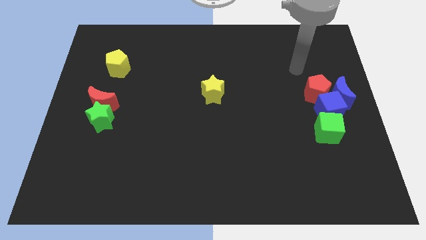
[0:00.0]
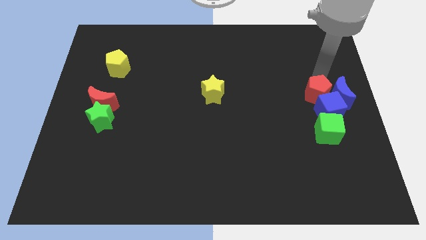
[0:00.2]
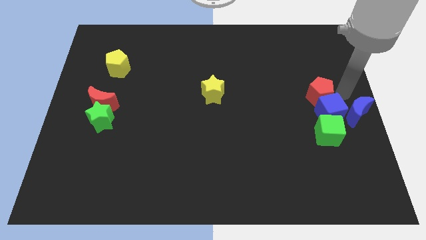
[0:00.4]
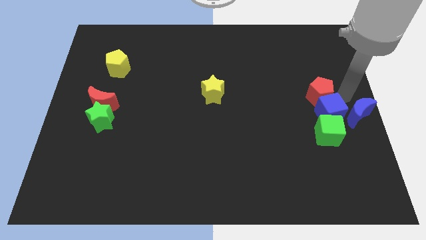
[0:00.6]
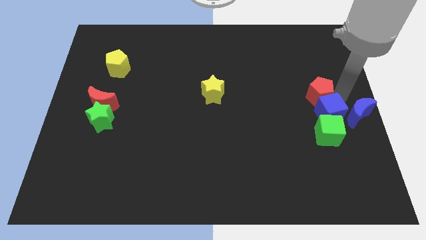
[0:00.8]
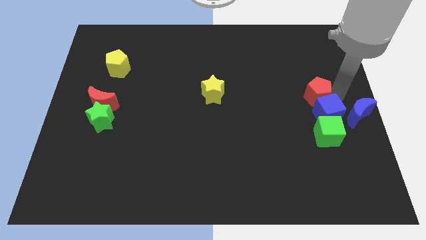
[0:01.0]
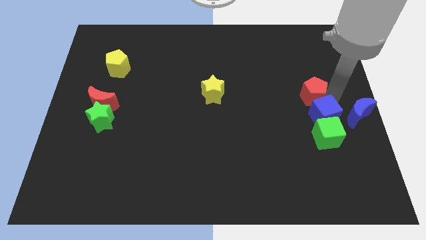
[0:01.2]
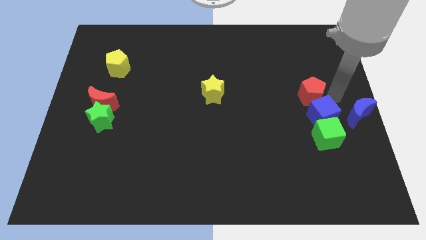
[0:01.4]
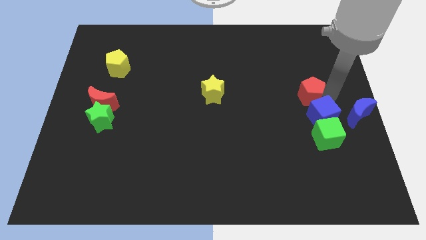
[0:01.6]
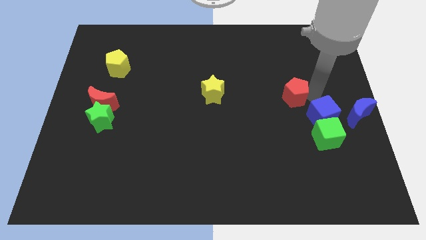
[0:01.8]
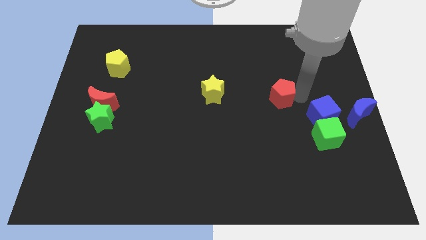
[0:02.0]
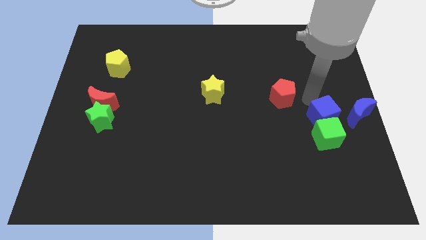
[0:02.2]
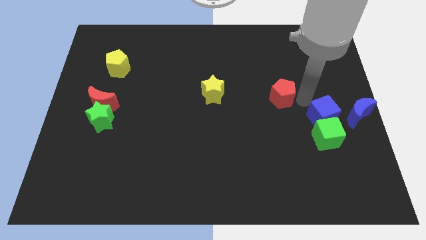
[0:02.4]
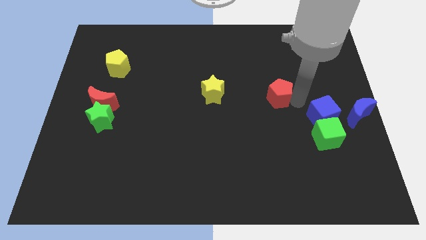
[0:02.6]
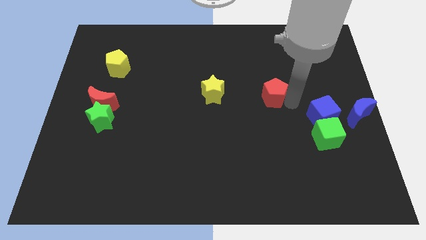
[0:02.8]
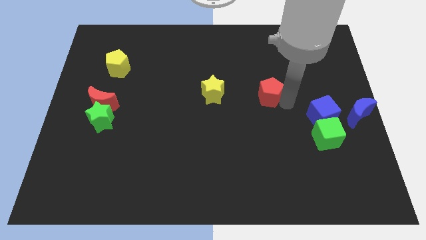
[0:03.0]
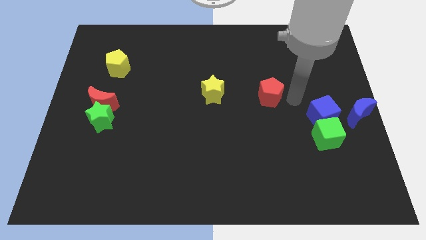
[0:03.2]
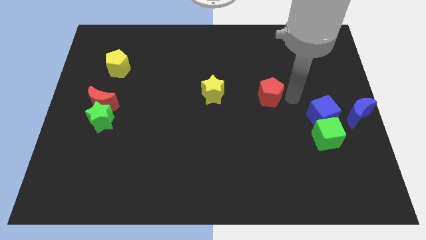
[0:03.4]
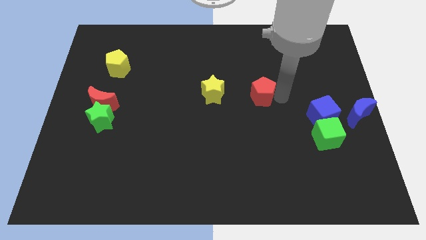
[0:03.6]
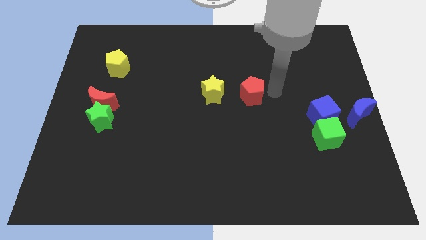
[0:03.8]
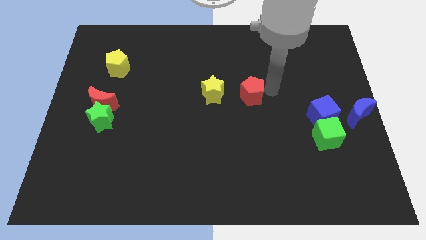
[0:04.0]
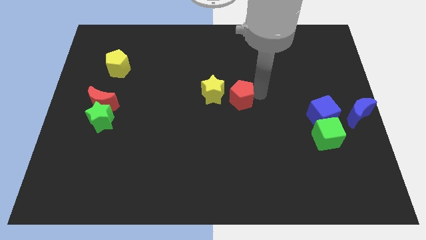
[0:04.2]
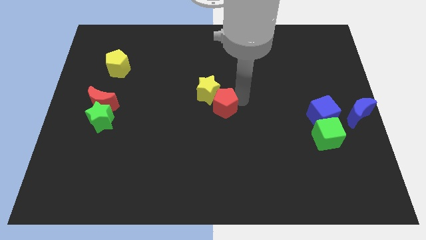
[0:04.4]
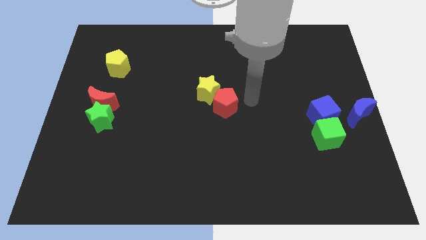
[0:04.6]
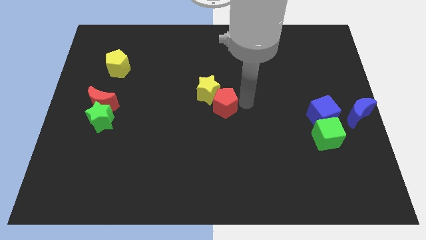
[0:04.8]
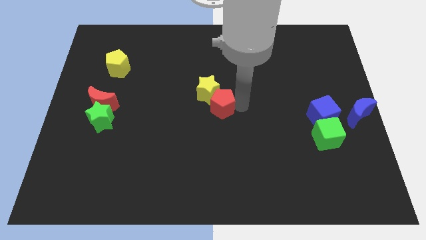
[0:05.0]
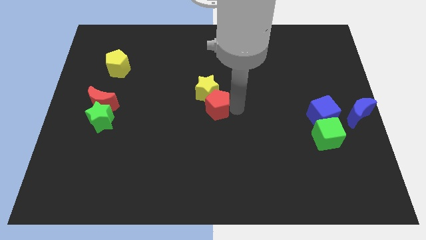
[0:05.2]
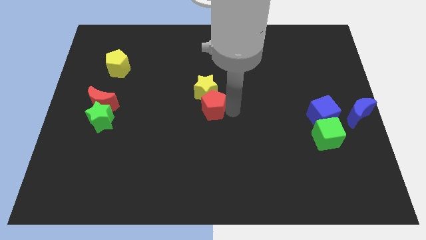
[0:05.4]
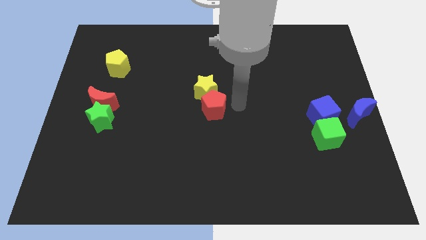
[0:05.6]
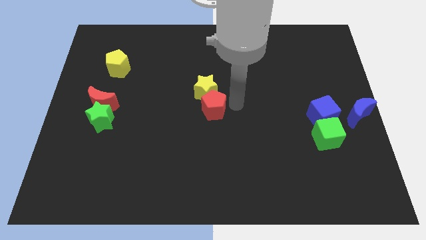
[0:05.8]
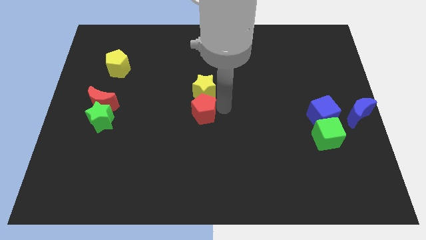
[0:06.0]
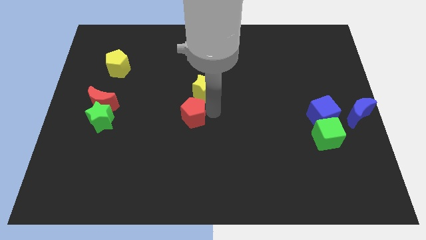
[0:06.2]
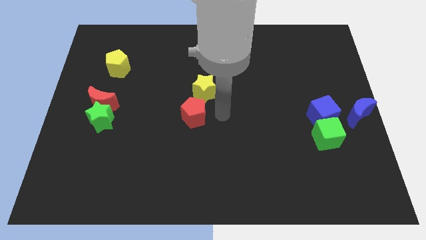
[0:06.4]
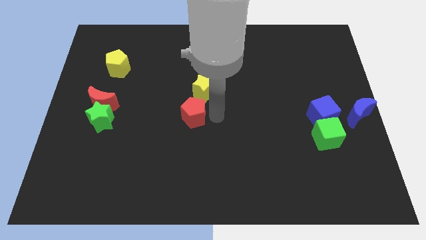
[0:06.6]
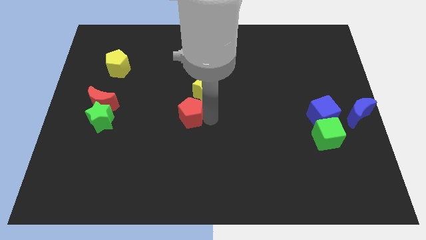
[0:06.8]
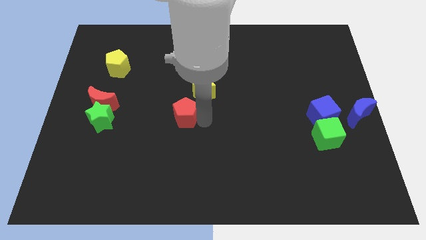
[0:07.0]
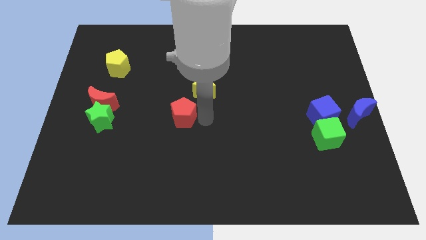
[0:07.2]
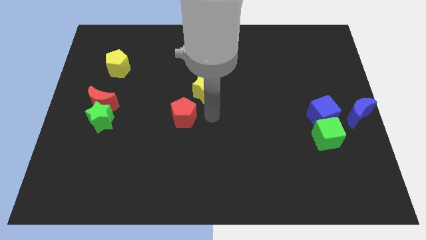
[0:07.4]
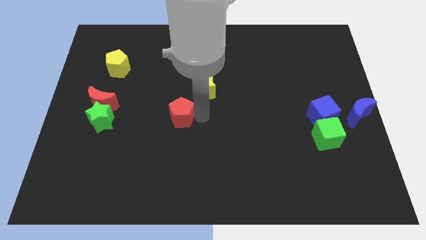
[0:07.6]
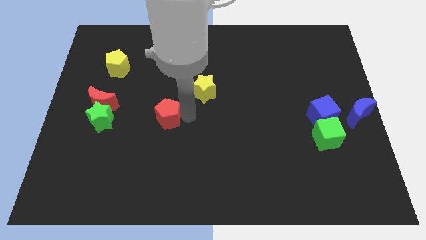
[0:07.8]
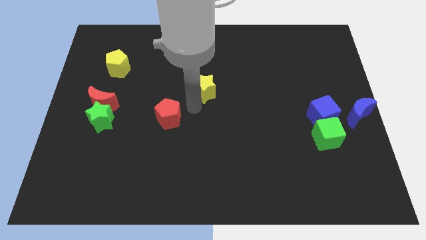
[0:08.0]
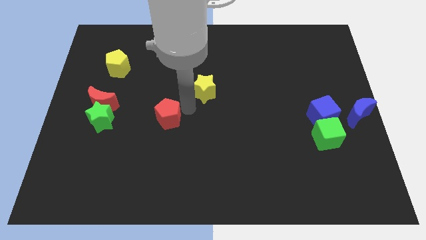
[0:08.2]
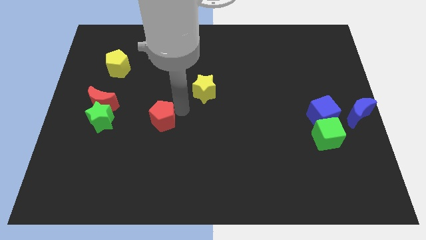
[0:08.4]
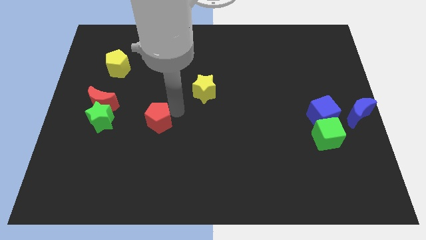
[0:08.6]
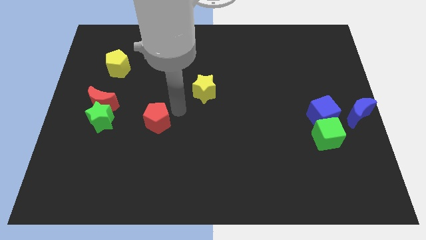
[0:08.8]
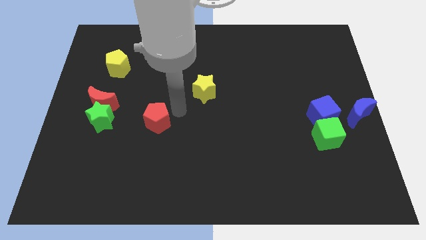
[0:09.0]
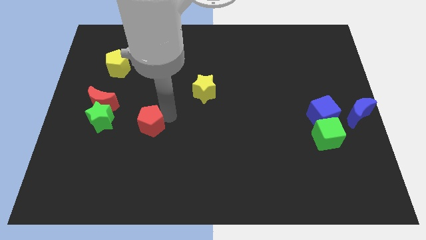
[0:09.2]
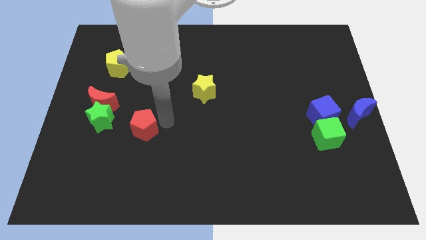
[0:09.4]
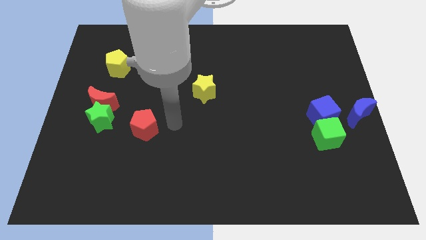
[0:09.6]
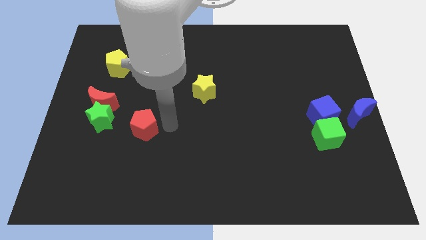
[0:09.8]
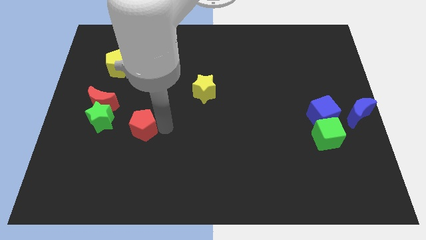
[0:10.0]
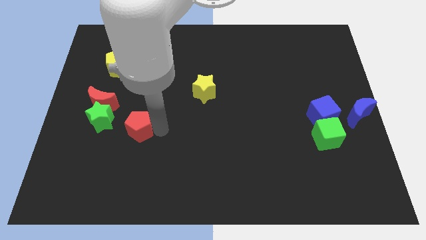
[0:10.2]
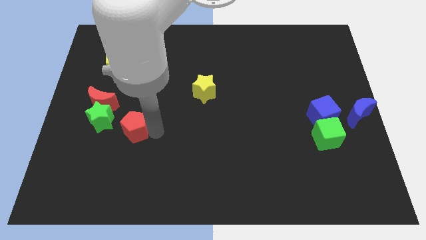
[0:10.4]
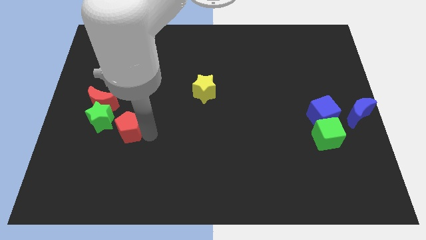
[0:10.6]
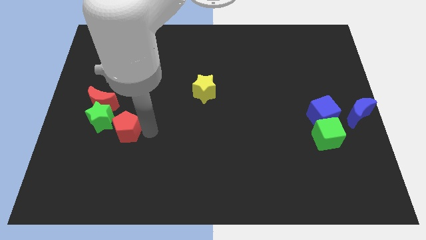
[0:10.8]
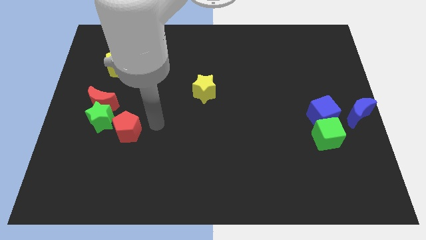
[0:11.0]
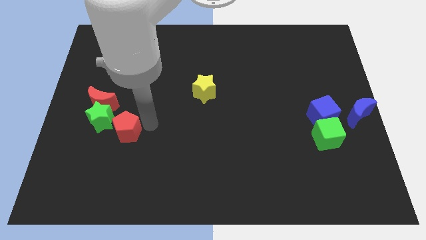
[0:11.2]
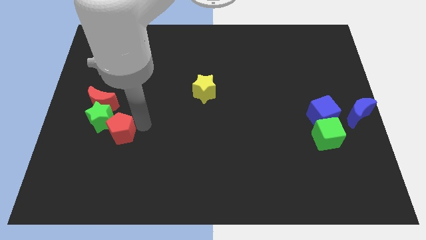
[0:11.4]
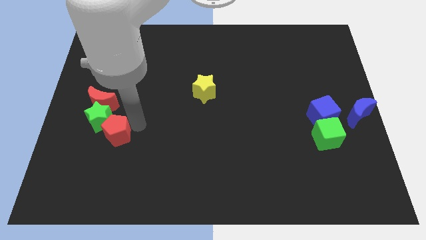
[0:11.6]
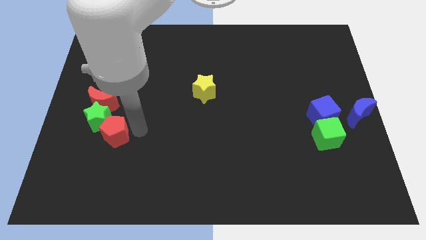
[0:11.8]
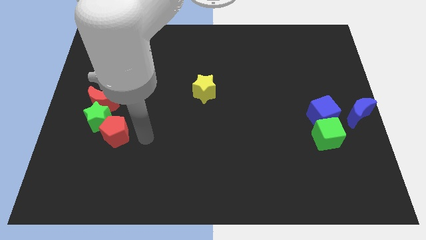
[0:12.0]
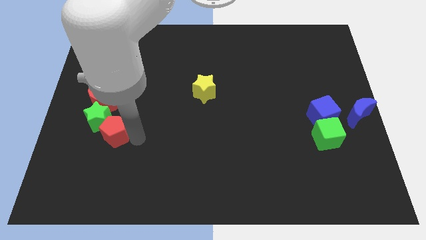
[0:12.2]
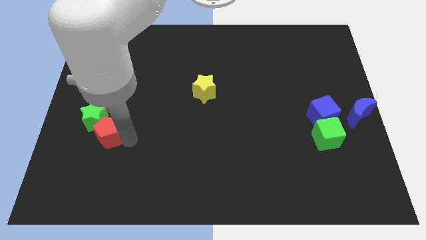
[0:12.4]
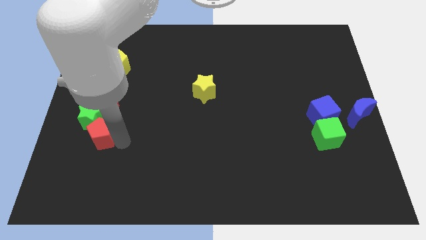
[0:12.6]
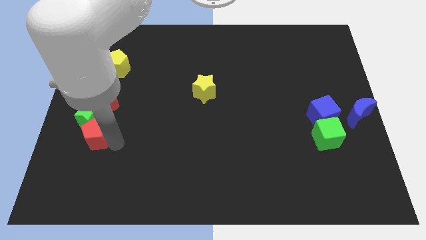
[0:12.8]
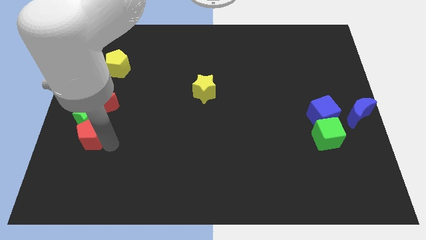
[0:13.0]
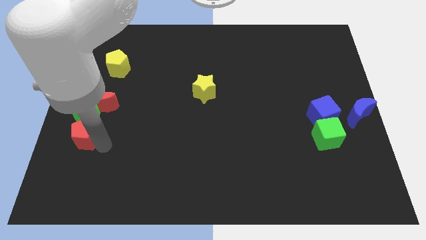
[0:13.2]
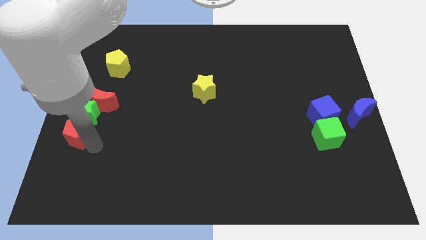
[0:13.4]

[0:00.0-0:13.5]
push the red pentagon to the left side of the board
